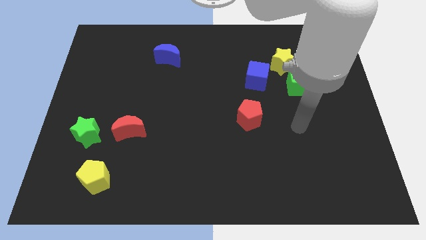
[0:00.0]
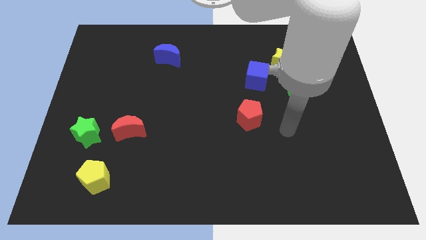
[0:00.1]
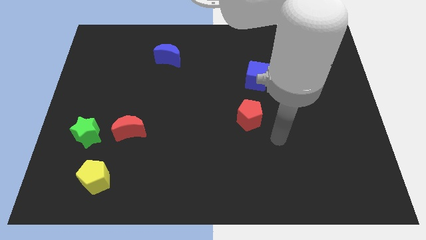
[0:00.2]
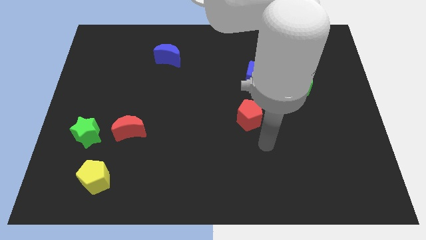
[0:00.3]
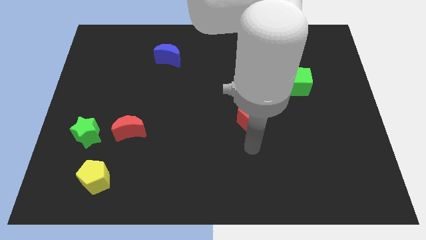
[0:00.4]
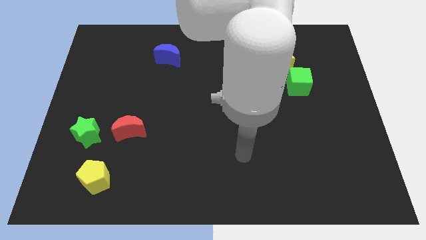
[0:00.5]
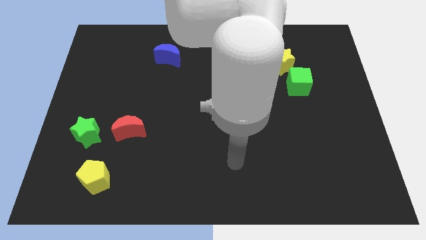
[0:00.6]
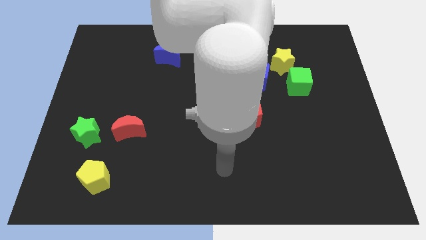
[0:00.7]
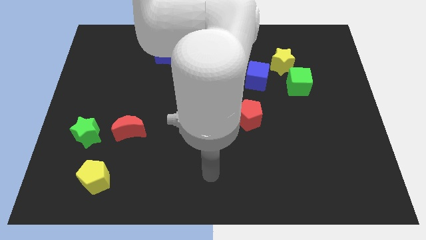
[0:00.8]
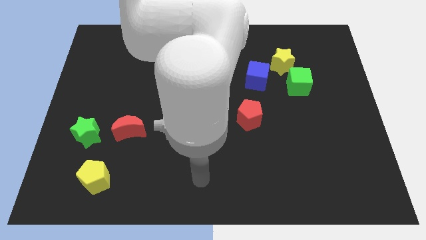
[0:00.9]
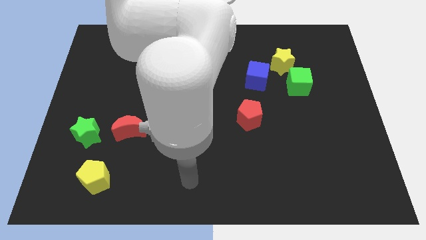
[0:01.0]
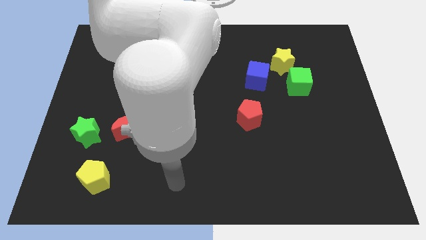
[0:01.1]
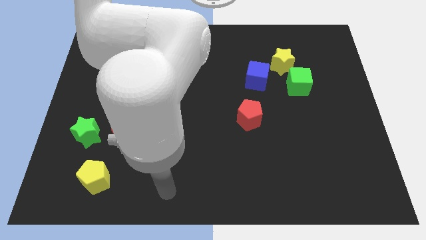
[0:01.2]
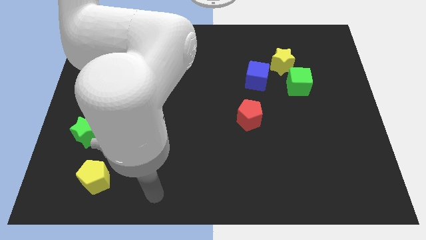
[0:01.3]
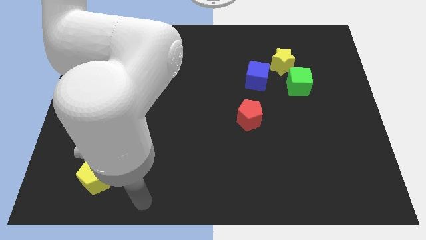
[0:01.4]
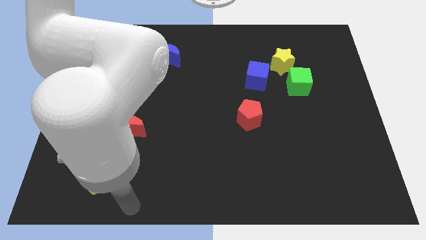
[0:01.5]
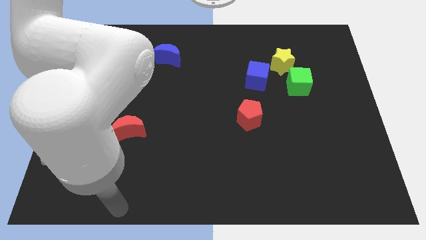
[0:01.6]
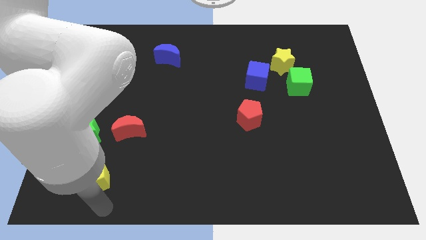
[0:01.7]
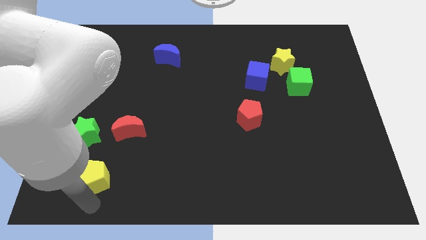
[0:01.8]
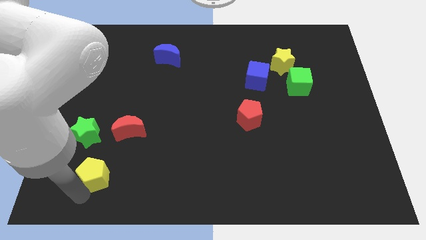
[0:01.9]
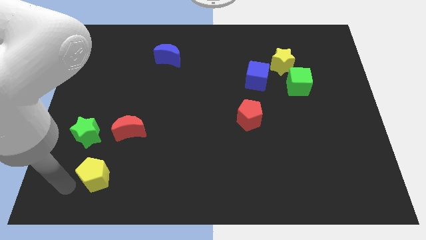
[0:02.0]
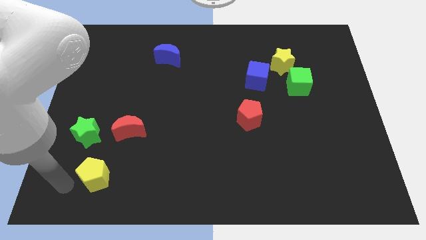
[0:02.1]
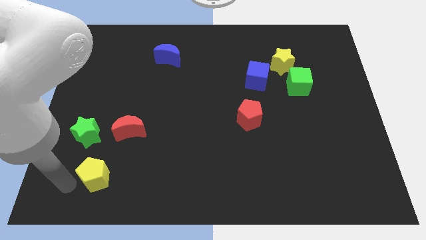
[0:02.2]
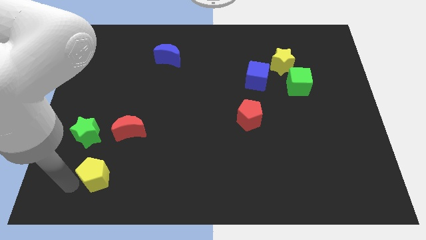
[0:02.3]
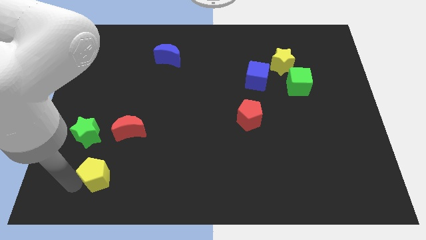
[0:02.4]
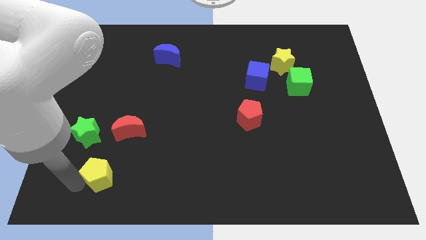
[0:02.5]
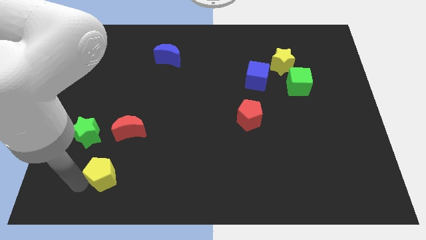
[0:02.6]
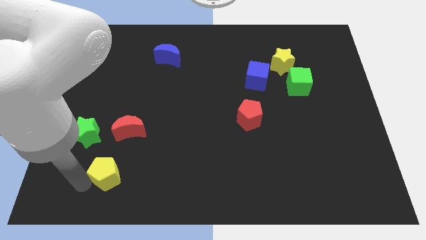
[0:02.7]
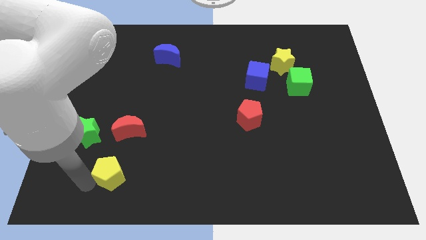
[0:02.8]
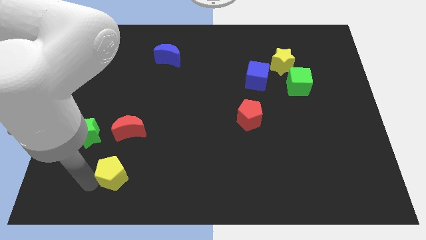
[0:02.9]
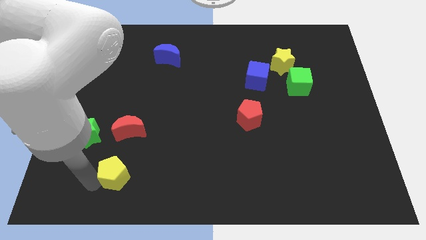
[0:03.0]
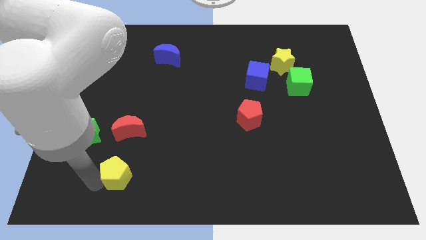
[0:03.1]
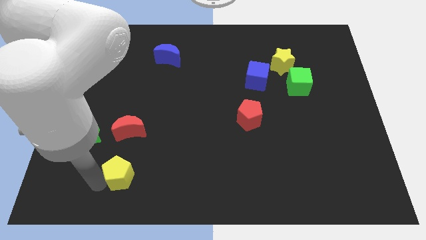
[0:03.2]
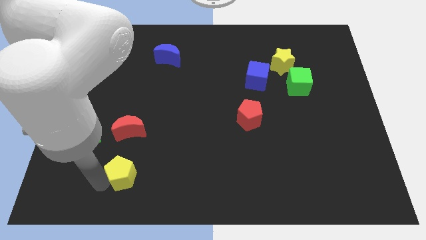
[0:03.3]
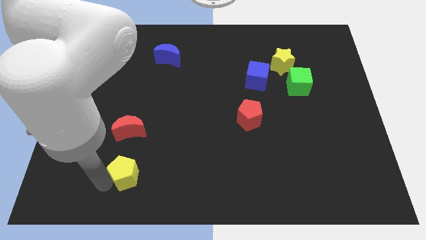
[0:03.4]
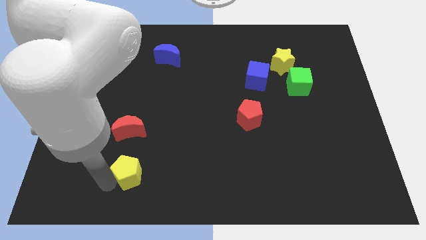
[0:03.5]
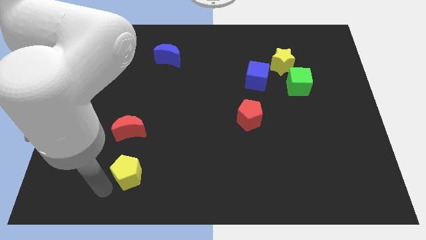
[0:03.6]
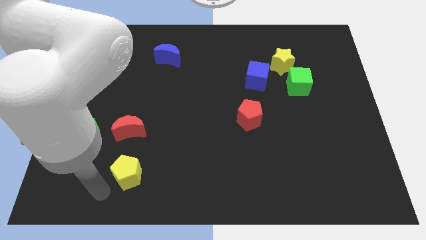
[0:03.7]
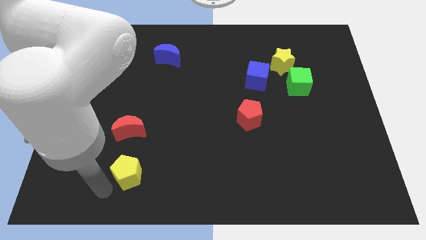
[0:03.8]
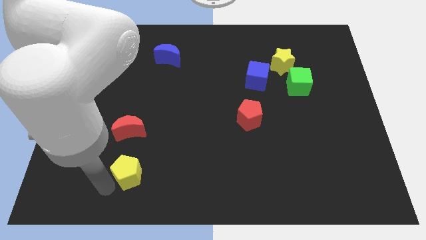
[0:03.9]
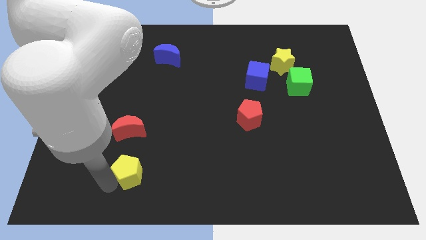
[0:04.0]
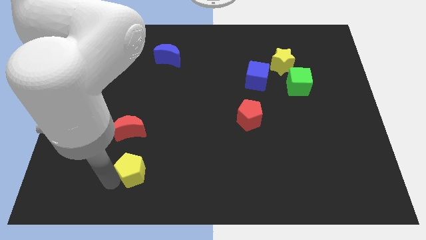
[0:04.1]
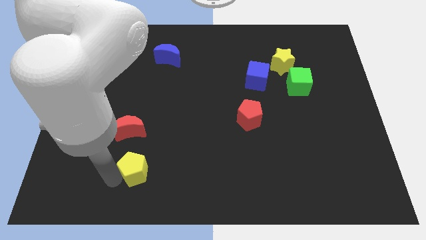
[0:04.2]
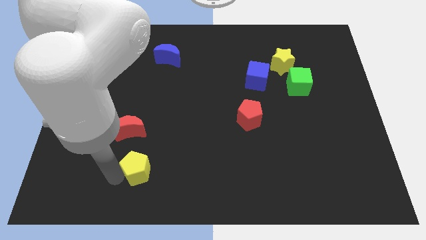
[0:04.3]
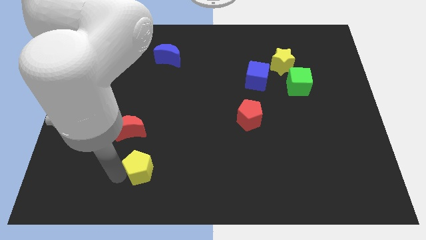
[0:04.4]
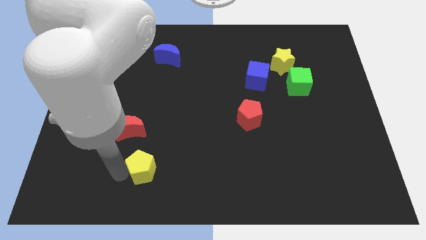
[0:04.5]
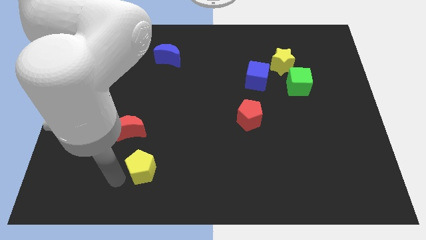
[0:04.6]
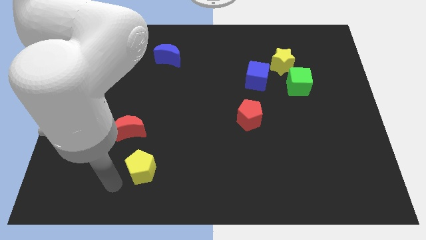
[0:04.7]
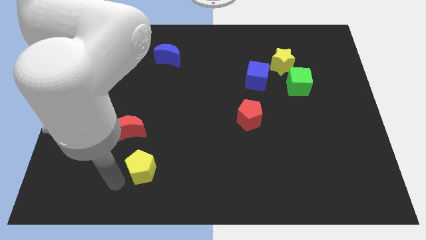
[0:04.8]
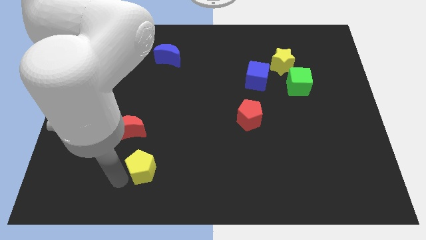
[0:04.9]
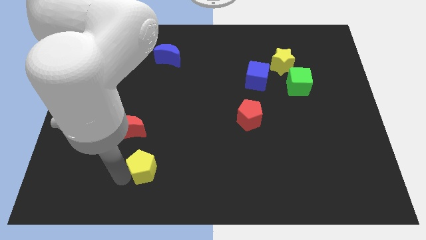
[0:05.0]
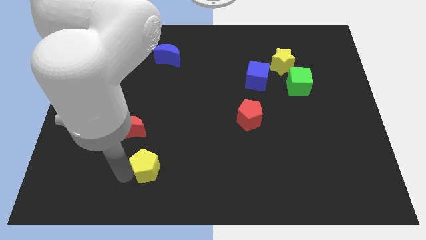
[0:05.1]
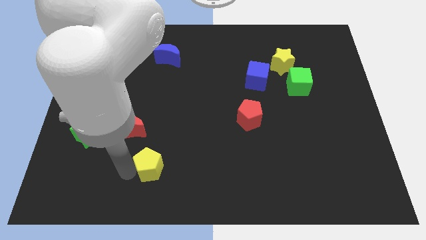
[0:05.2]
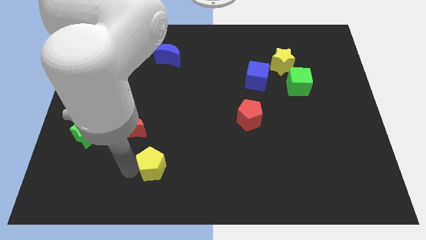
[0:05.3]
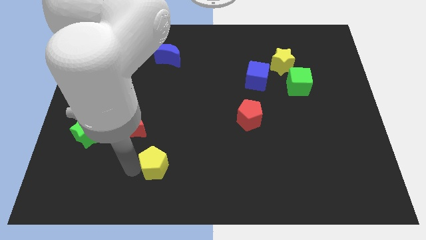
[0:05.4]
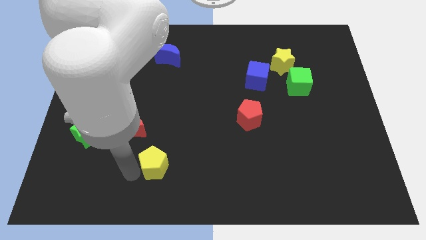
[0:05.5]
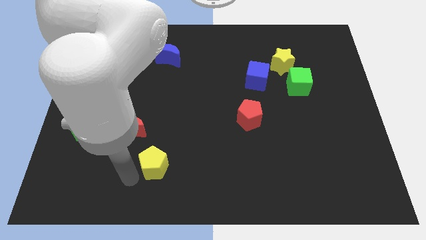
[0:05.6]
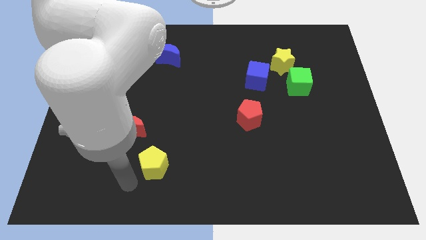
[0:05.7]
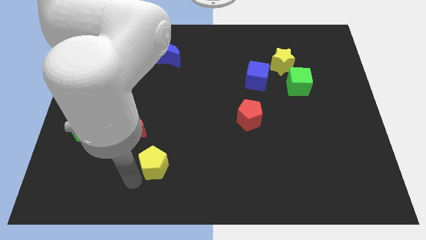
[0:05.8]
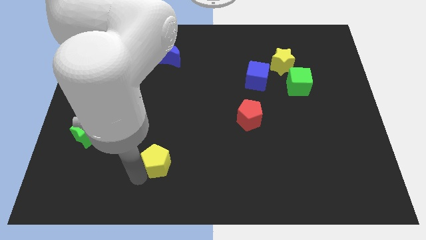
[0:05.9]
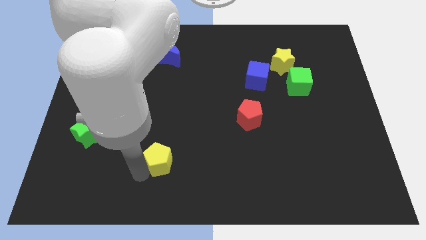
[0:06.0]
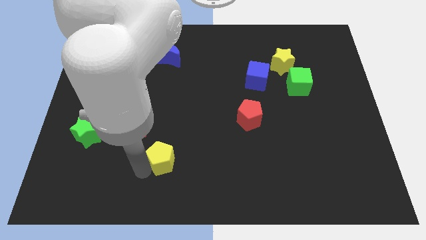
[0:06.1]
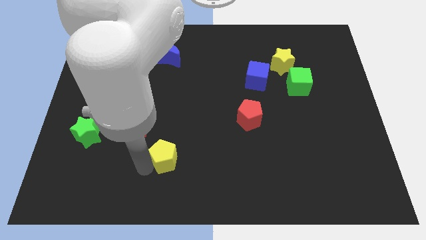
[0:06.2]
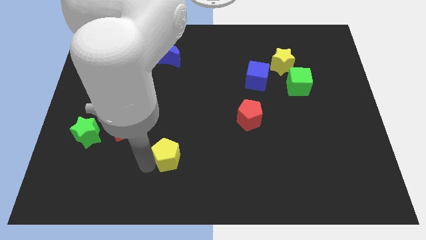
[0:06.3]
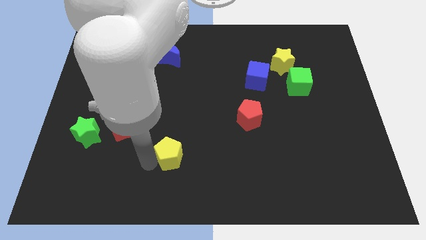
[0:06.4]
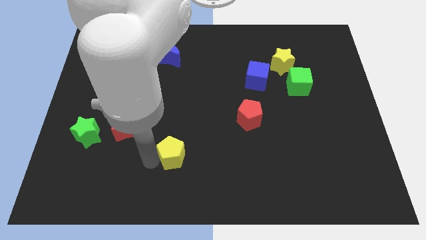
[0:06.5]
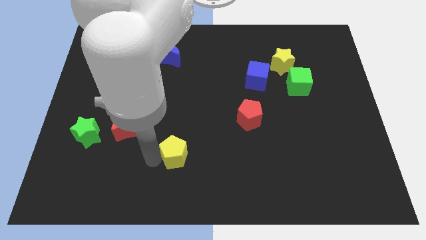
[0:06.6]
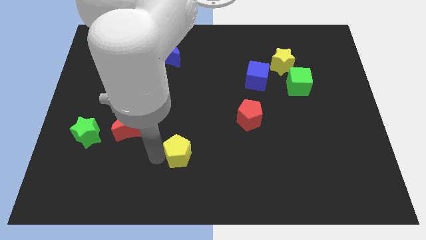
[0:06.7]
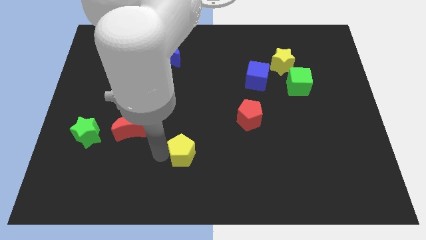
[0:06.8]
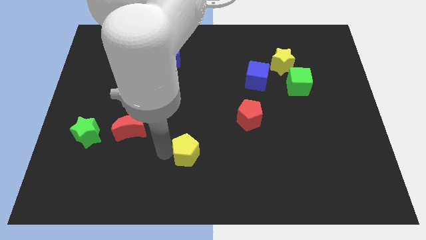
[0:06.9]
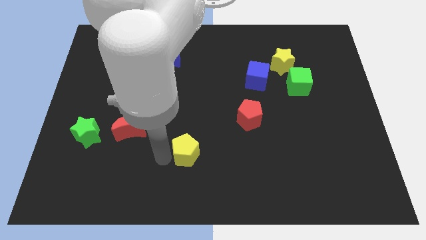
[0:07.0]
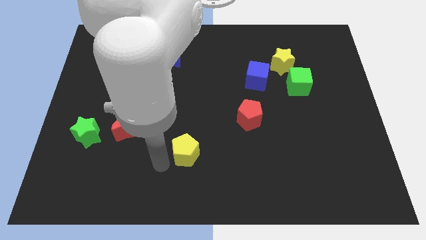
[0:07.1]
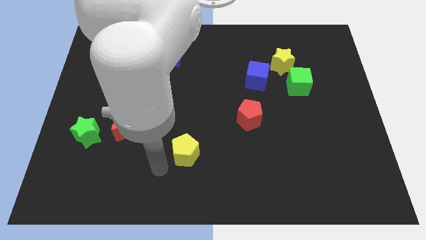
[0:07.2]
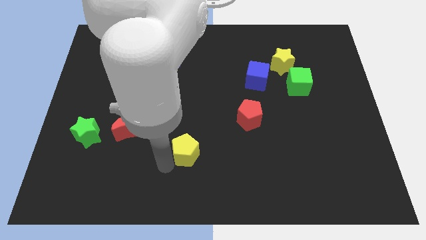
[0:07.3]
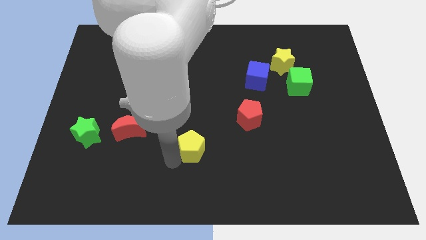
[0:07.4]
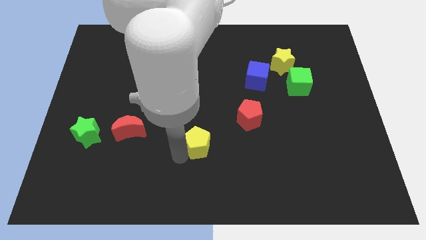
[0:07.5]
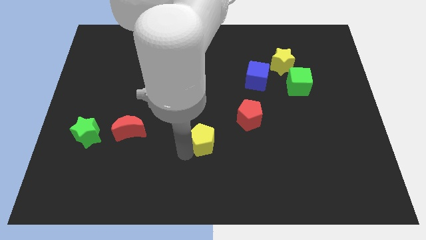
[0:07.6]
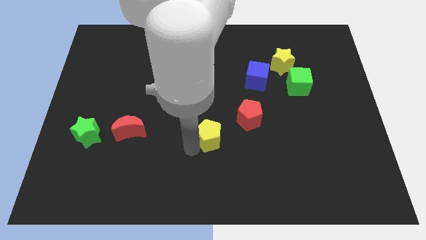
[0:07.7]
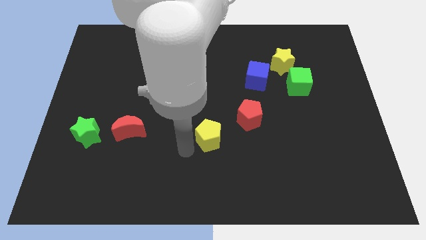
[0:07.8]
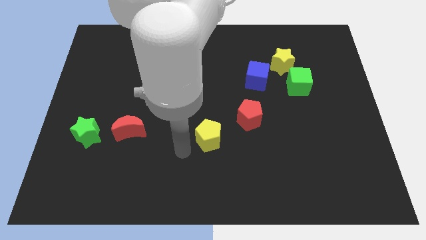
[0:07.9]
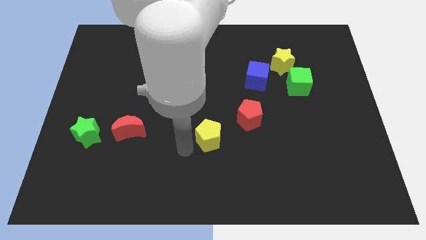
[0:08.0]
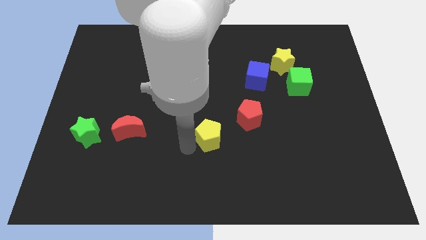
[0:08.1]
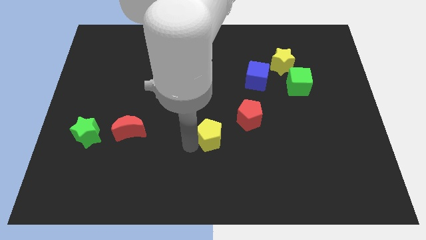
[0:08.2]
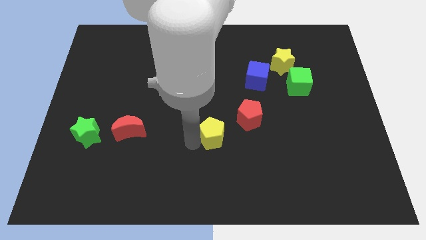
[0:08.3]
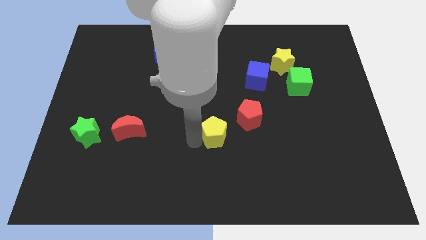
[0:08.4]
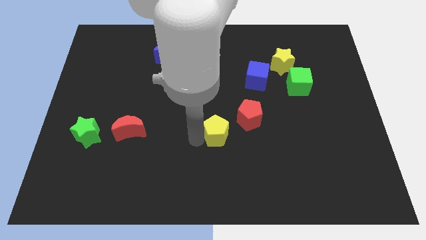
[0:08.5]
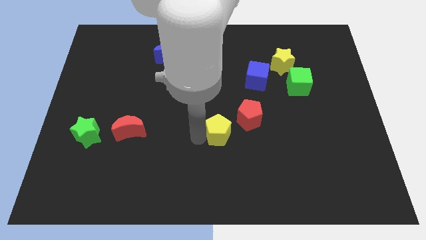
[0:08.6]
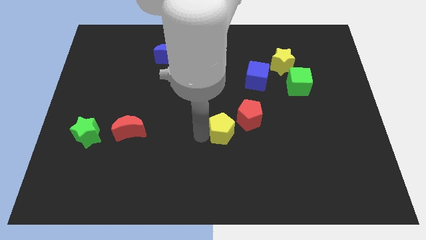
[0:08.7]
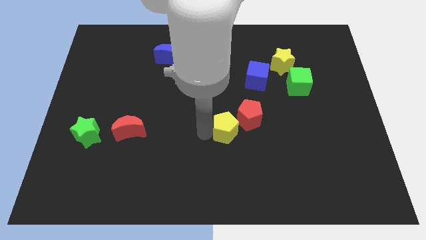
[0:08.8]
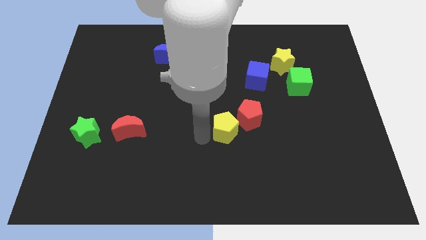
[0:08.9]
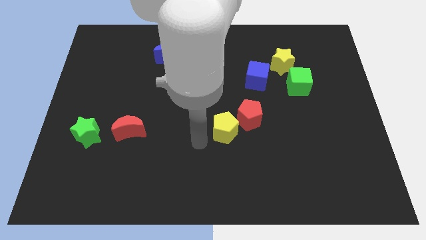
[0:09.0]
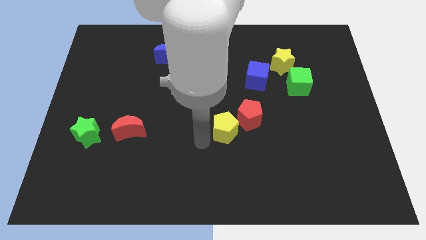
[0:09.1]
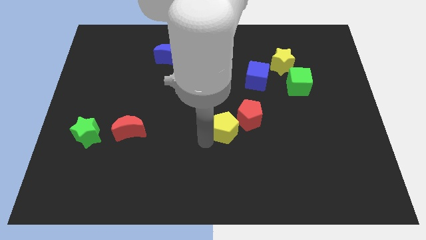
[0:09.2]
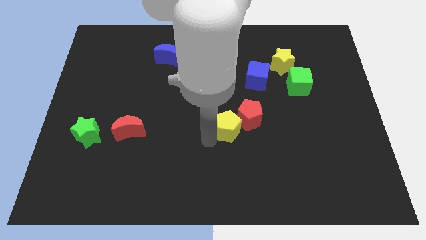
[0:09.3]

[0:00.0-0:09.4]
put the yellow pentagon towards the red pentagon
